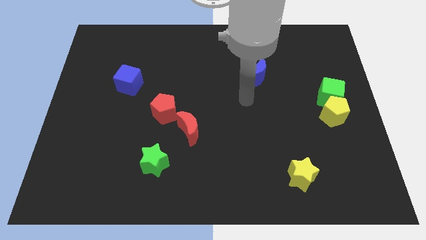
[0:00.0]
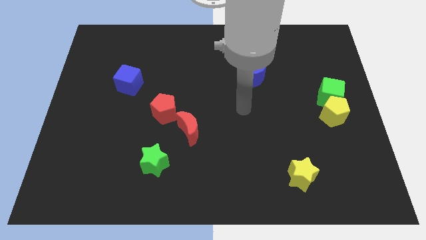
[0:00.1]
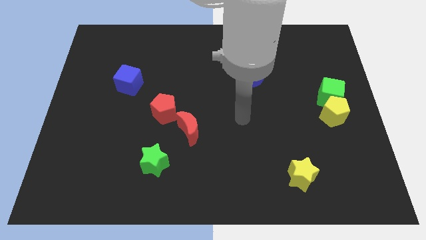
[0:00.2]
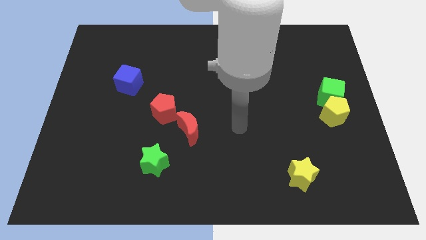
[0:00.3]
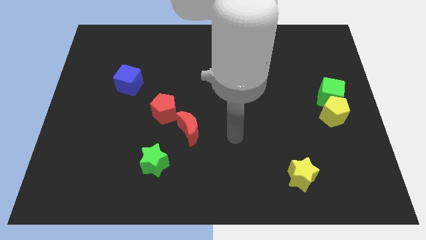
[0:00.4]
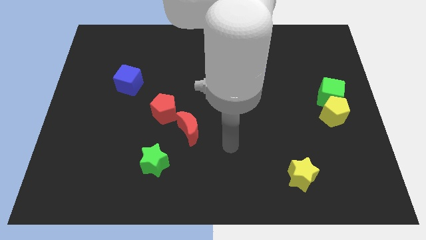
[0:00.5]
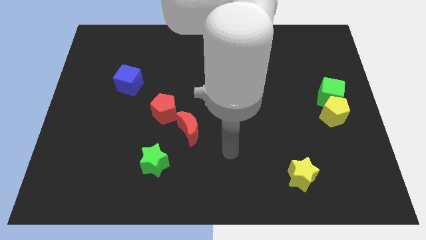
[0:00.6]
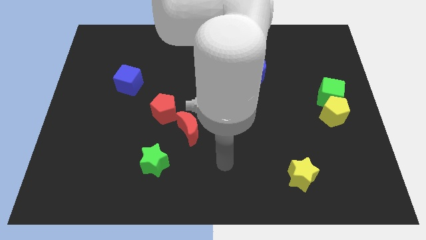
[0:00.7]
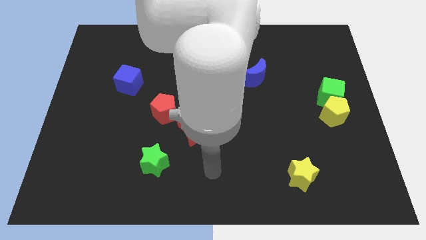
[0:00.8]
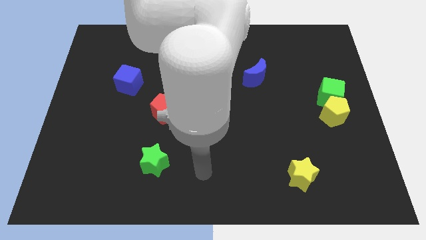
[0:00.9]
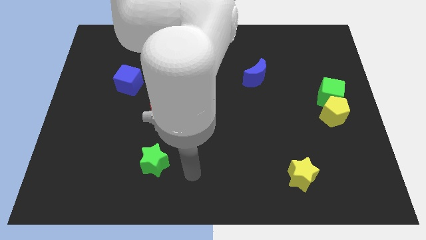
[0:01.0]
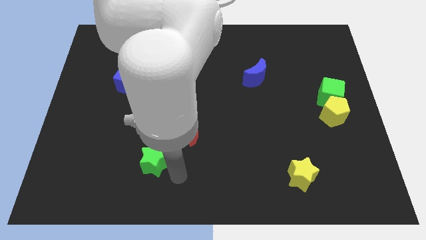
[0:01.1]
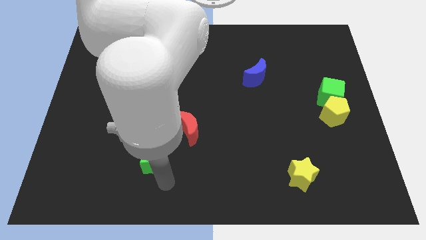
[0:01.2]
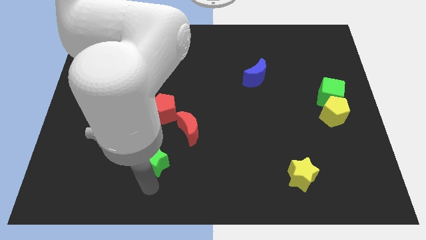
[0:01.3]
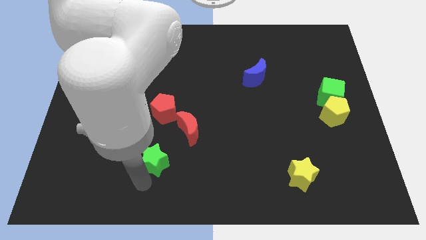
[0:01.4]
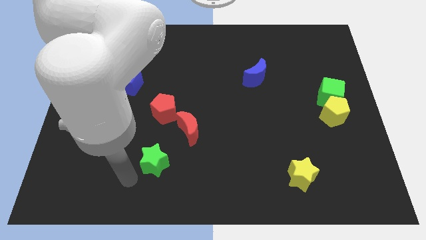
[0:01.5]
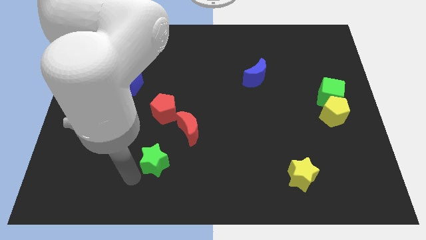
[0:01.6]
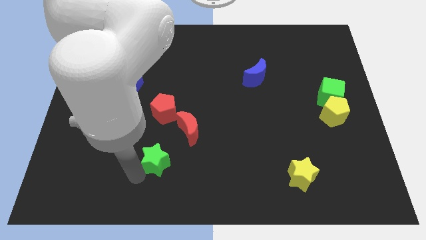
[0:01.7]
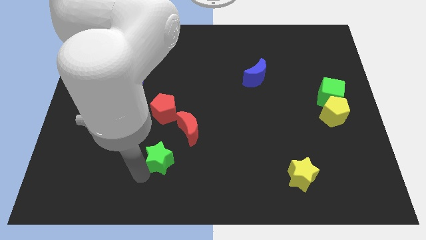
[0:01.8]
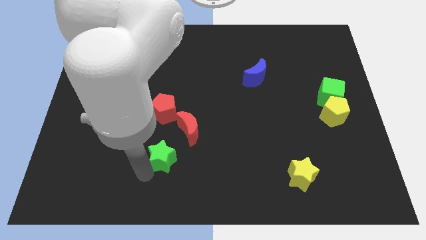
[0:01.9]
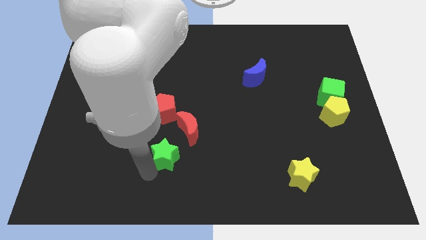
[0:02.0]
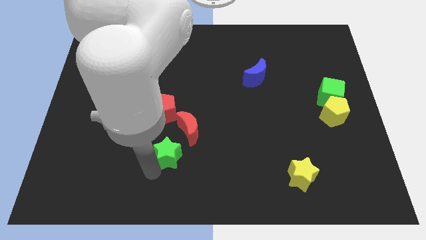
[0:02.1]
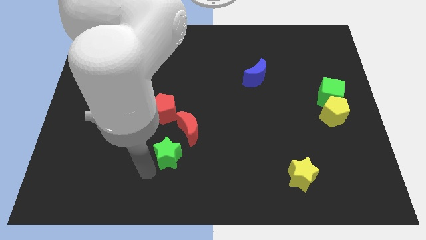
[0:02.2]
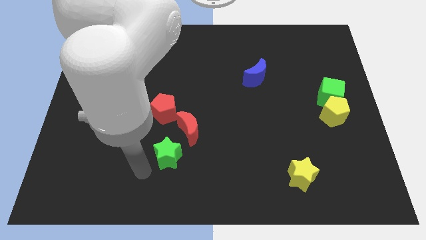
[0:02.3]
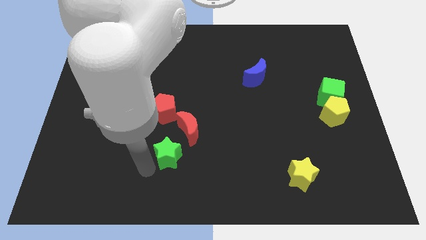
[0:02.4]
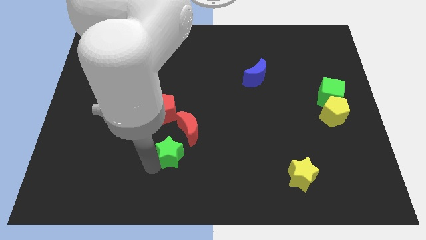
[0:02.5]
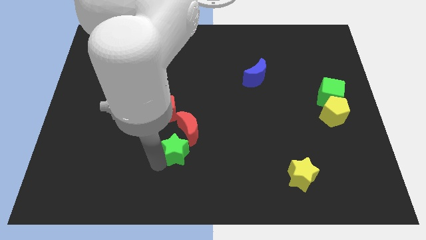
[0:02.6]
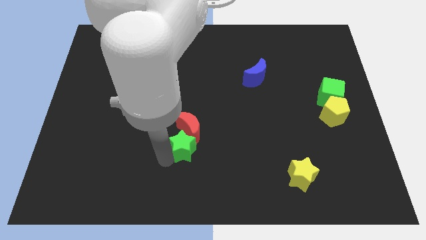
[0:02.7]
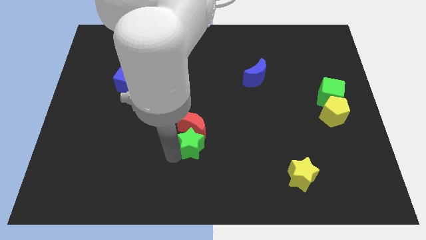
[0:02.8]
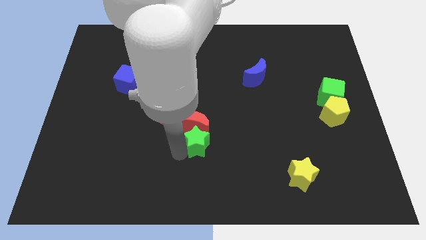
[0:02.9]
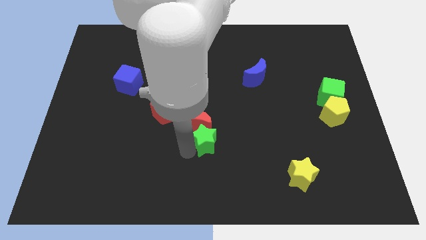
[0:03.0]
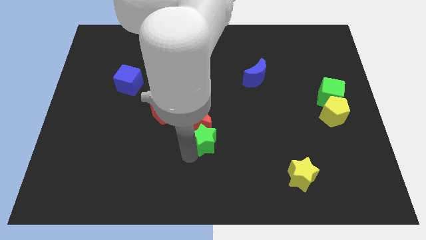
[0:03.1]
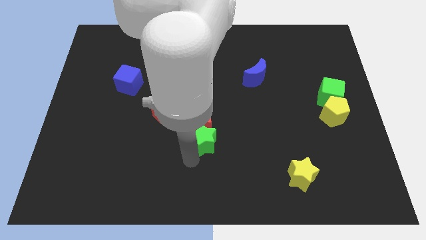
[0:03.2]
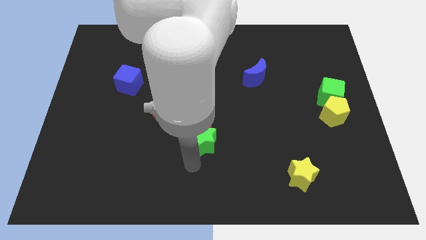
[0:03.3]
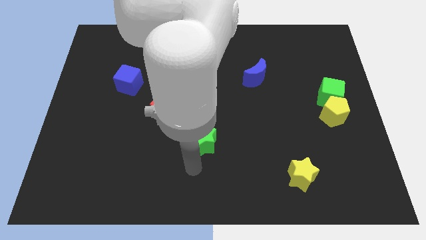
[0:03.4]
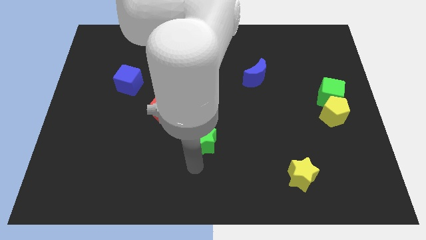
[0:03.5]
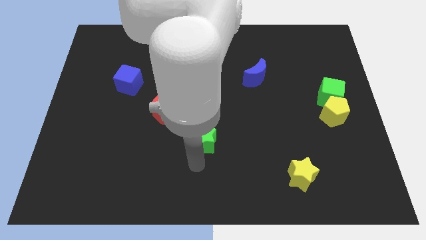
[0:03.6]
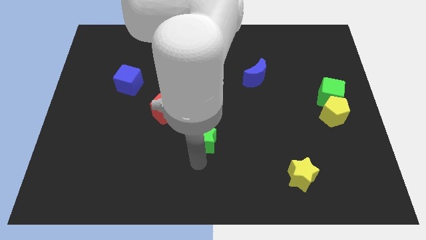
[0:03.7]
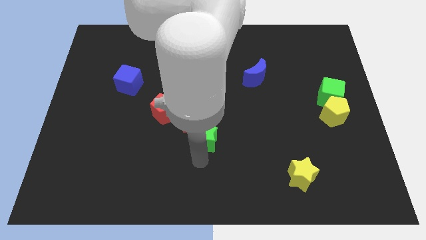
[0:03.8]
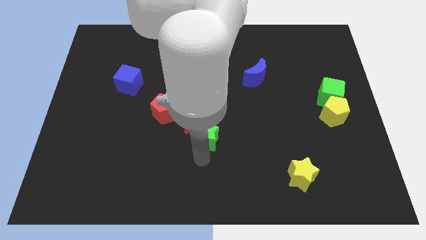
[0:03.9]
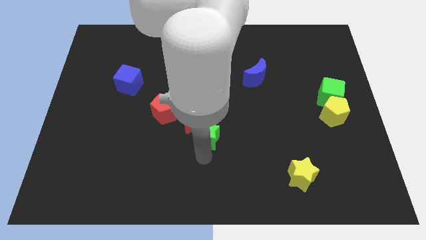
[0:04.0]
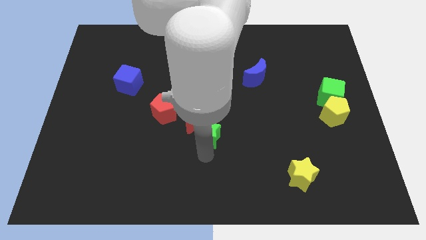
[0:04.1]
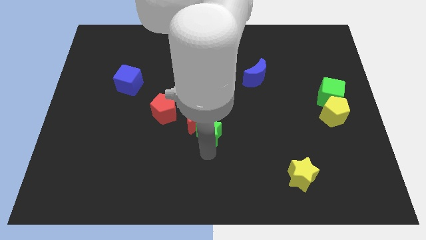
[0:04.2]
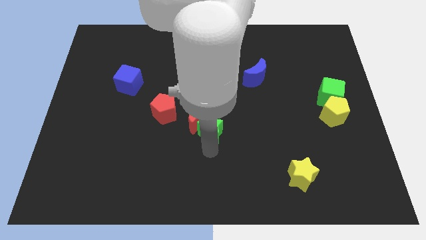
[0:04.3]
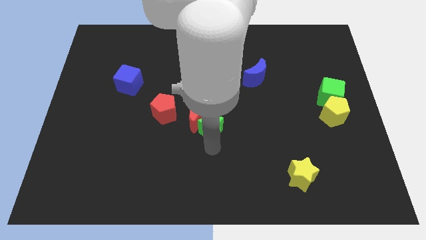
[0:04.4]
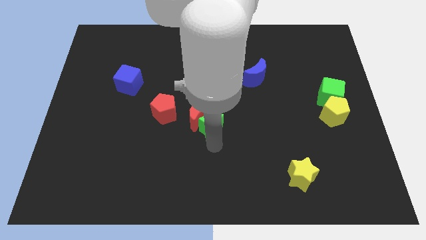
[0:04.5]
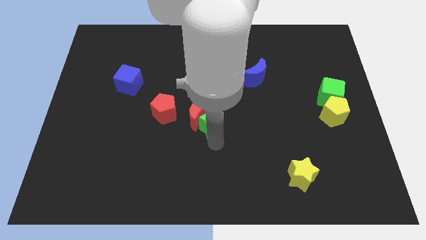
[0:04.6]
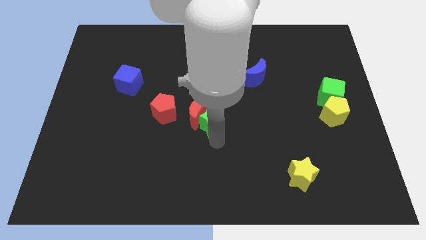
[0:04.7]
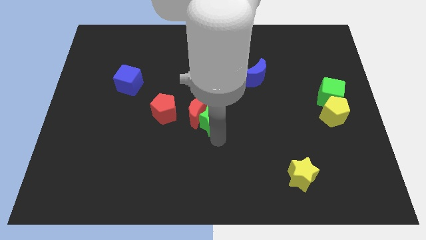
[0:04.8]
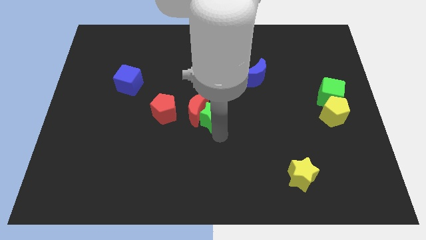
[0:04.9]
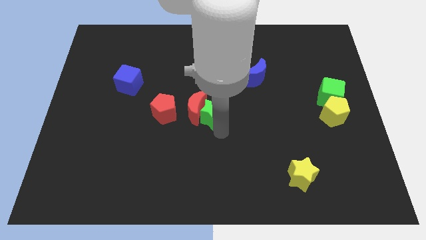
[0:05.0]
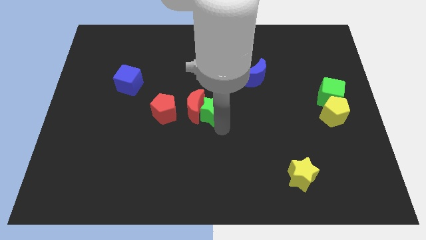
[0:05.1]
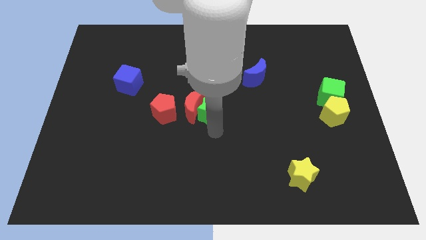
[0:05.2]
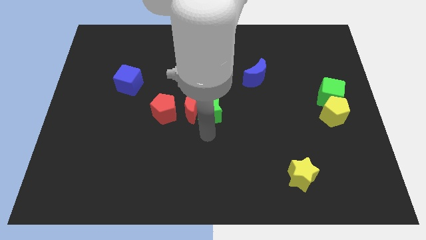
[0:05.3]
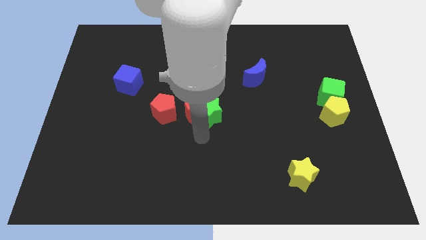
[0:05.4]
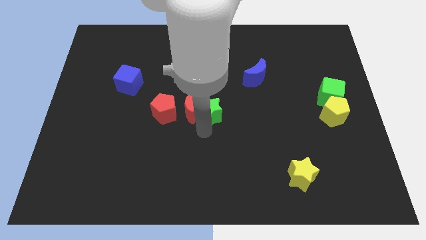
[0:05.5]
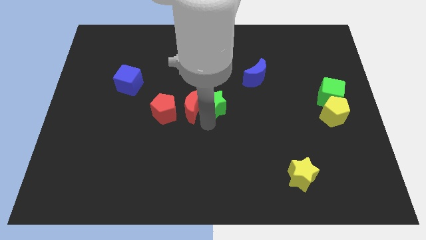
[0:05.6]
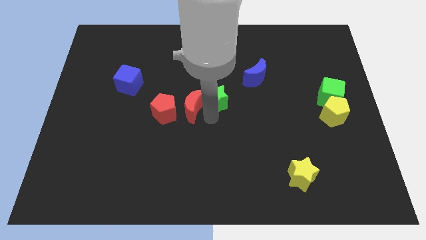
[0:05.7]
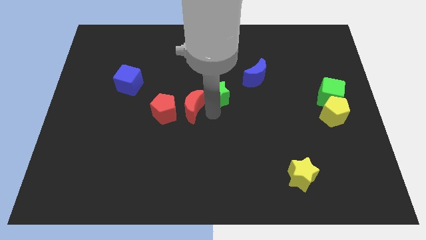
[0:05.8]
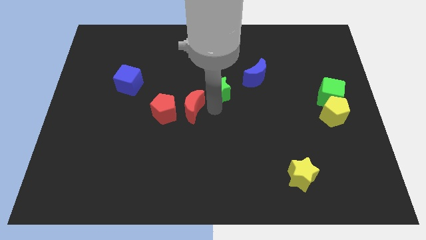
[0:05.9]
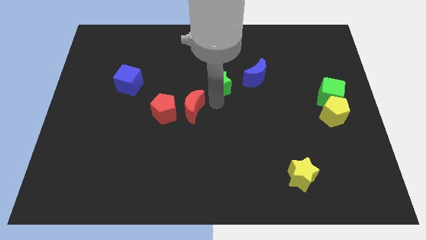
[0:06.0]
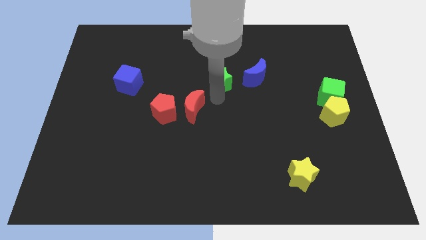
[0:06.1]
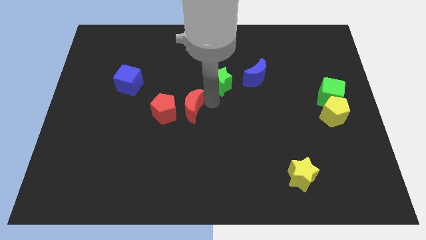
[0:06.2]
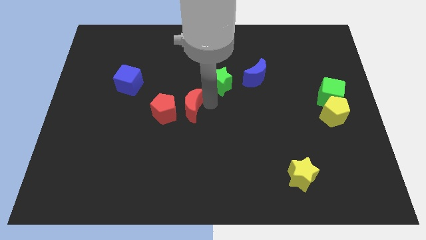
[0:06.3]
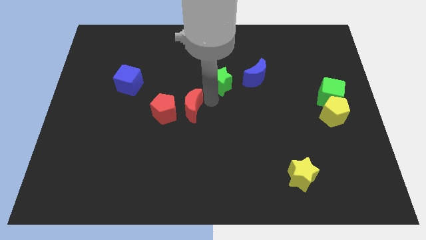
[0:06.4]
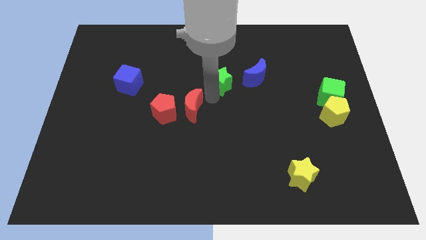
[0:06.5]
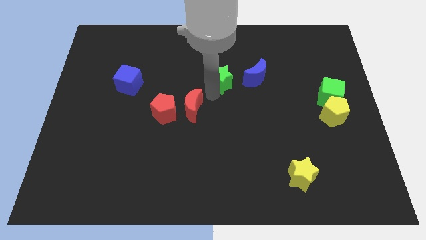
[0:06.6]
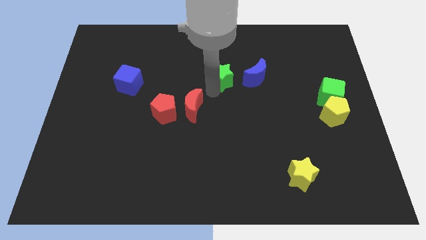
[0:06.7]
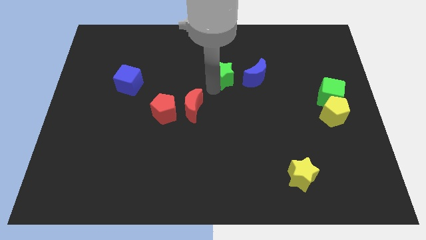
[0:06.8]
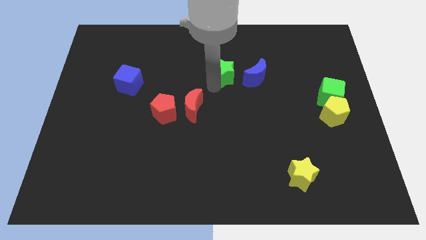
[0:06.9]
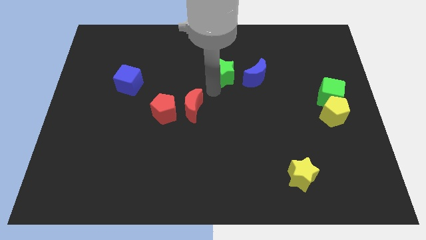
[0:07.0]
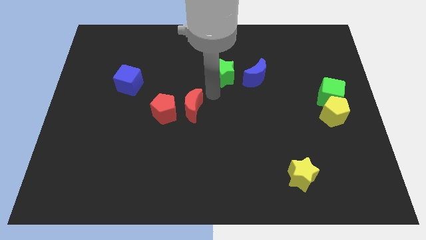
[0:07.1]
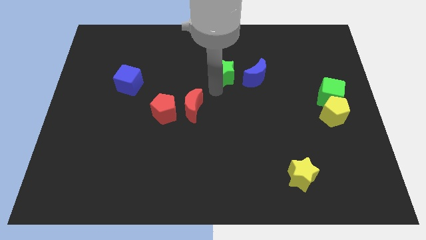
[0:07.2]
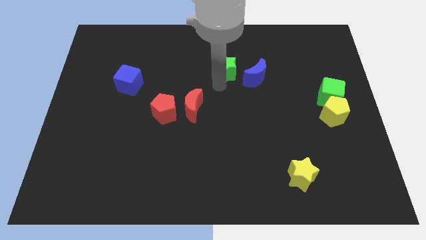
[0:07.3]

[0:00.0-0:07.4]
move the green star to the top left side of the blue moon

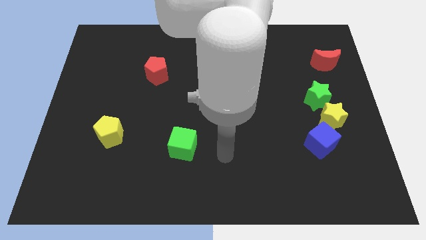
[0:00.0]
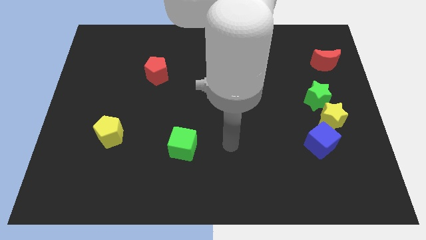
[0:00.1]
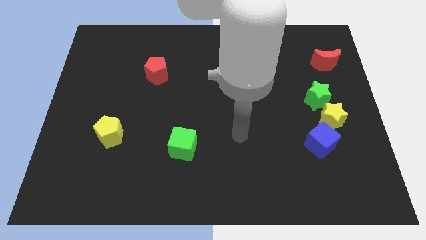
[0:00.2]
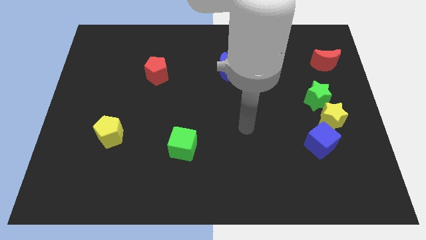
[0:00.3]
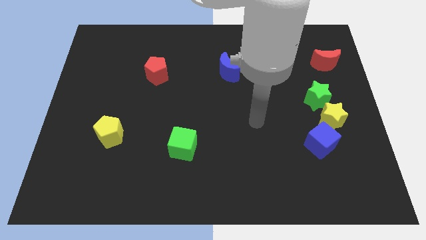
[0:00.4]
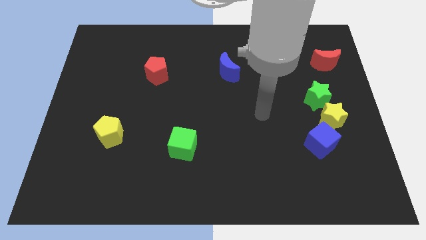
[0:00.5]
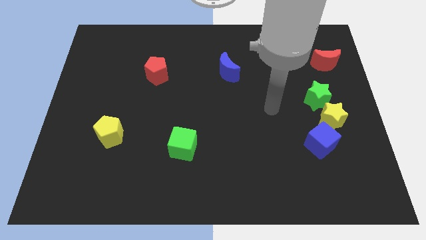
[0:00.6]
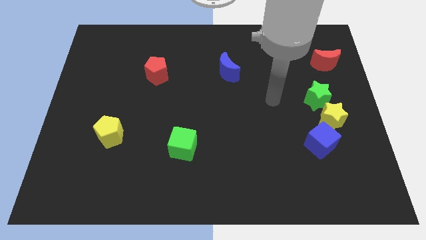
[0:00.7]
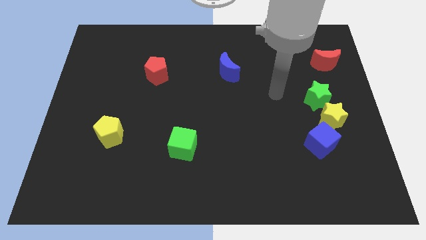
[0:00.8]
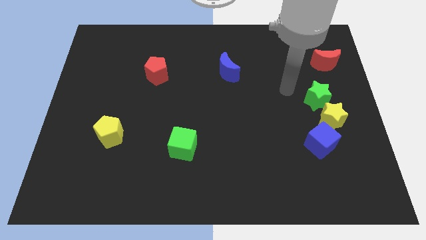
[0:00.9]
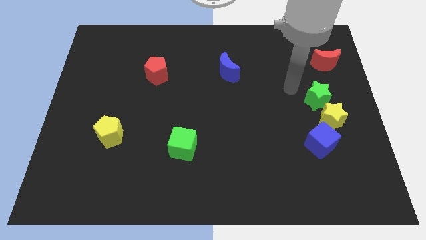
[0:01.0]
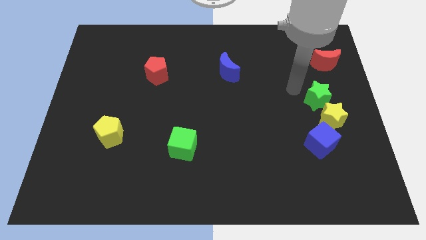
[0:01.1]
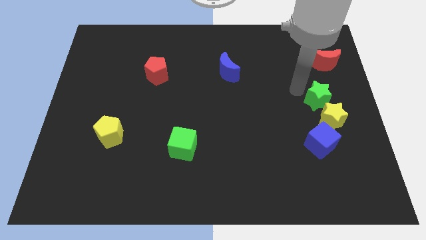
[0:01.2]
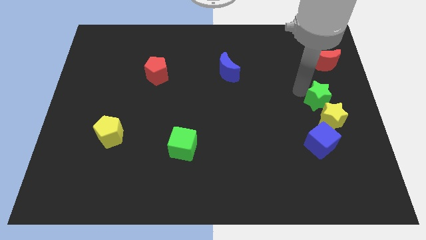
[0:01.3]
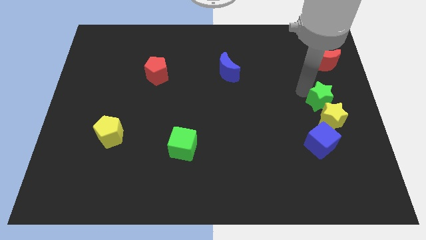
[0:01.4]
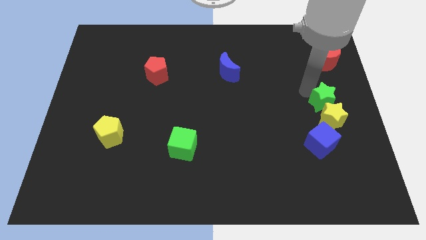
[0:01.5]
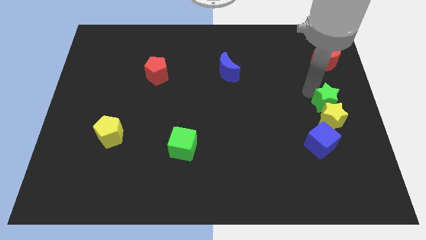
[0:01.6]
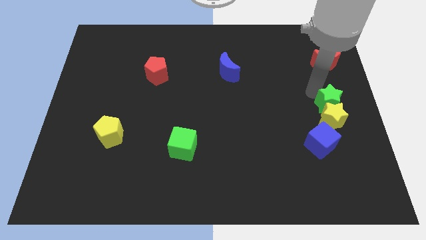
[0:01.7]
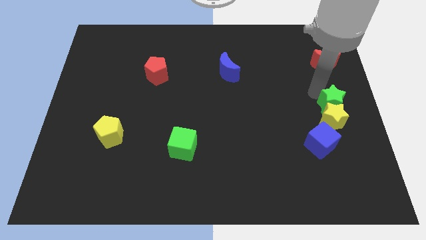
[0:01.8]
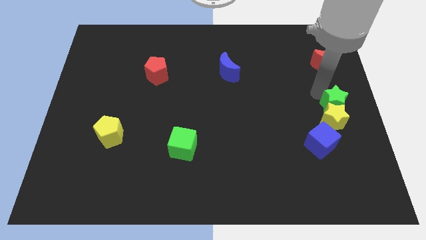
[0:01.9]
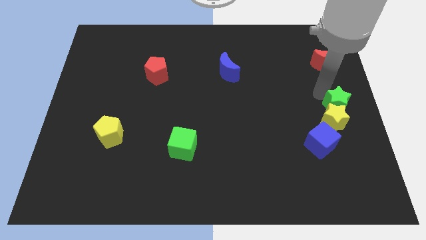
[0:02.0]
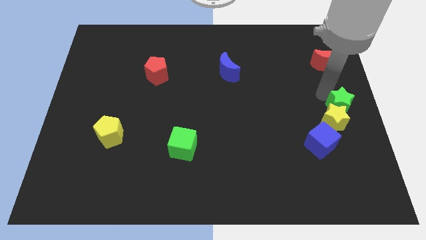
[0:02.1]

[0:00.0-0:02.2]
push the green star diagonally up and to the right of the blue cube
